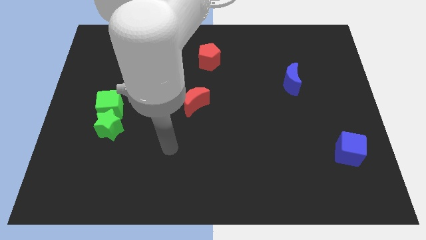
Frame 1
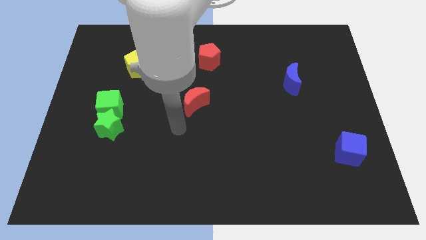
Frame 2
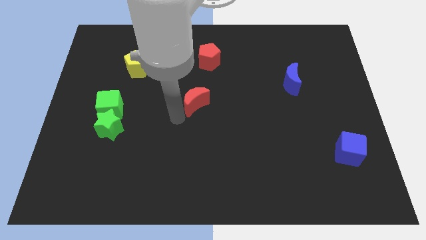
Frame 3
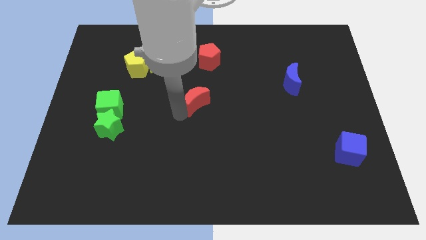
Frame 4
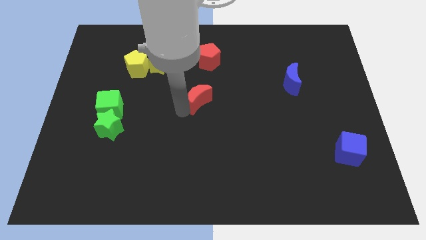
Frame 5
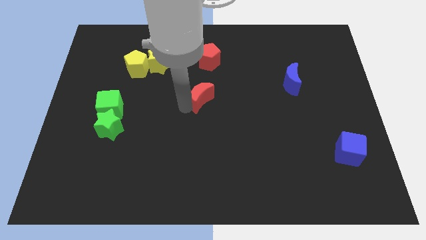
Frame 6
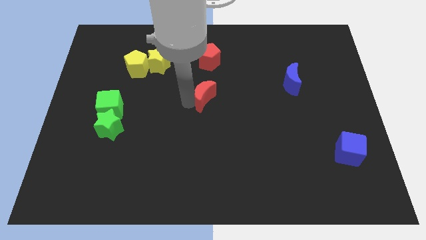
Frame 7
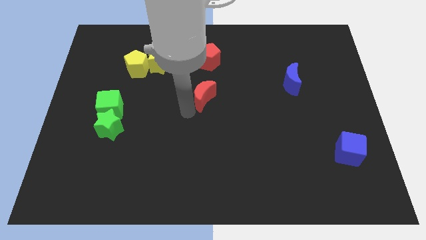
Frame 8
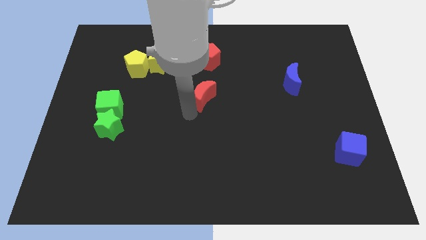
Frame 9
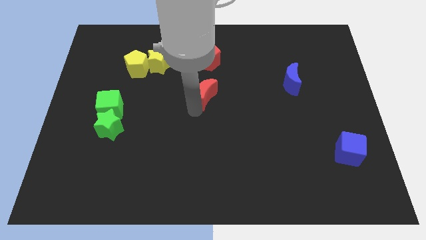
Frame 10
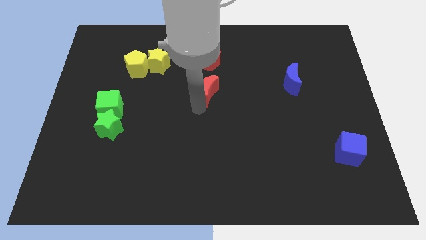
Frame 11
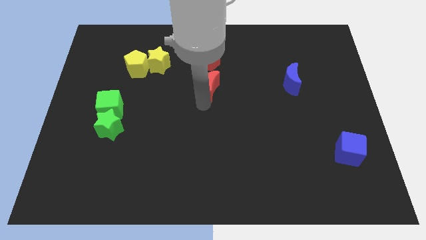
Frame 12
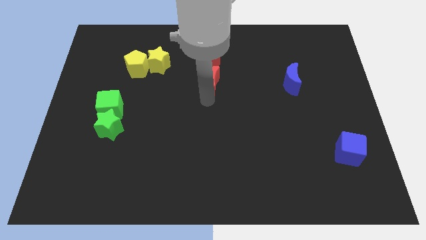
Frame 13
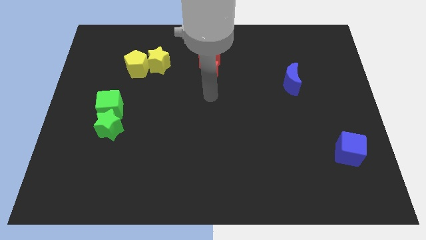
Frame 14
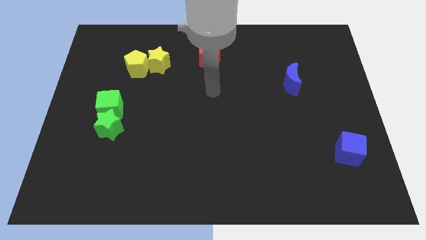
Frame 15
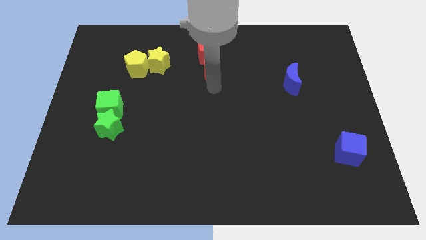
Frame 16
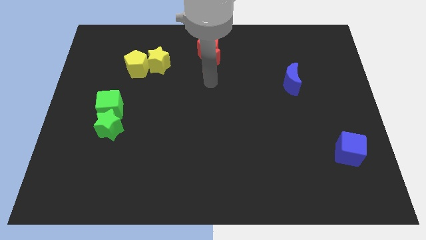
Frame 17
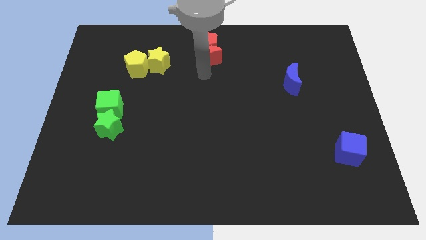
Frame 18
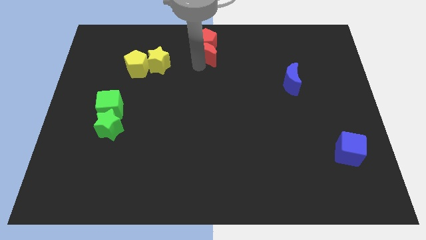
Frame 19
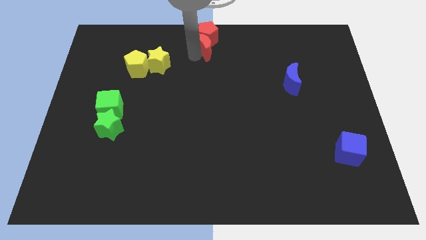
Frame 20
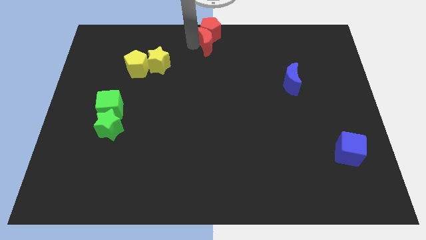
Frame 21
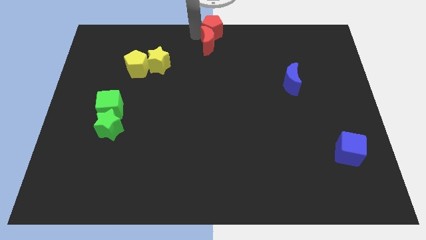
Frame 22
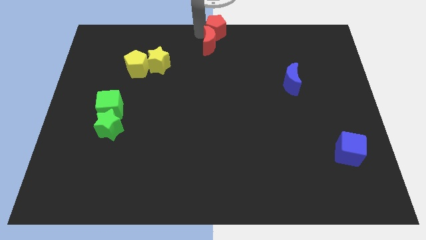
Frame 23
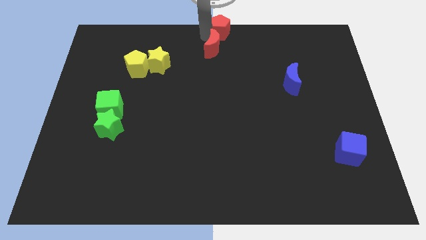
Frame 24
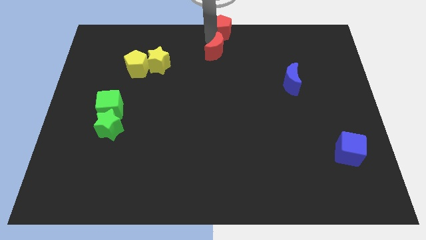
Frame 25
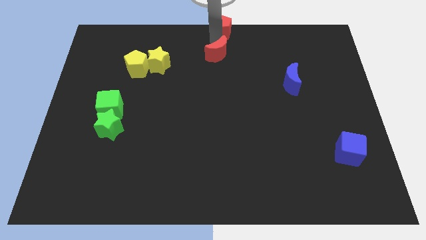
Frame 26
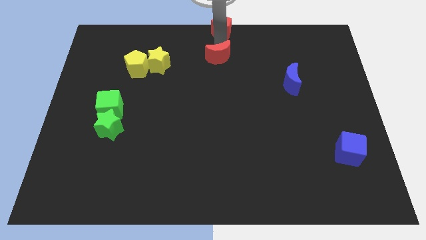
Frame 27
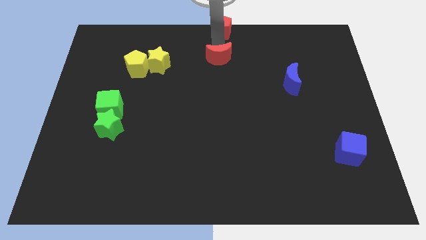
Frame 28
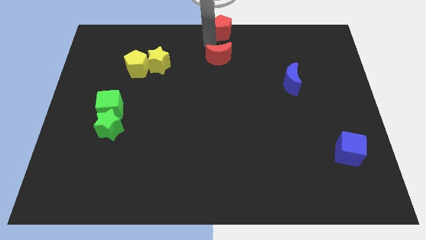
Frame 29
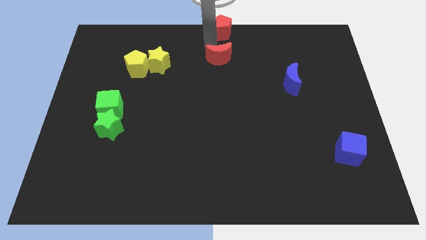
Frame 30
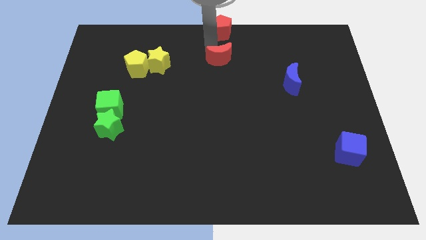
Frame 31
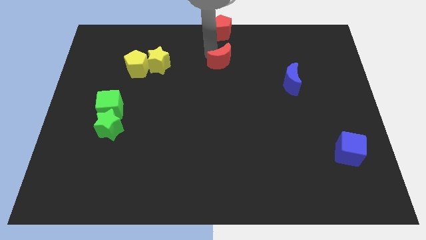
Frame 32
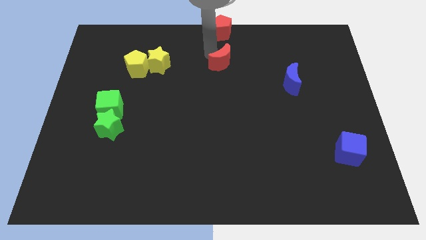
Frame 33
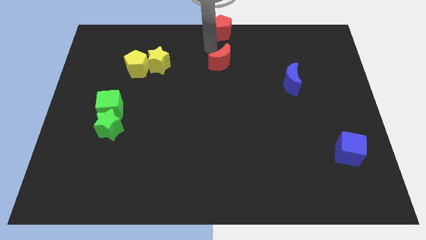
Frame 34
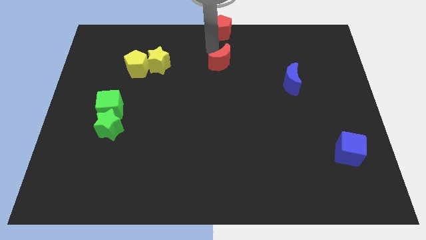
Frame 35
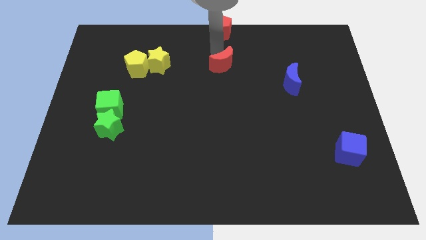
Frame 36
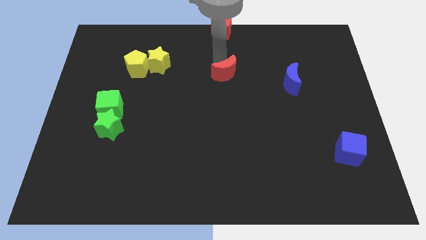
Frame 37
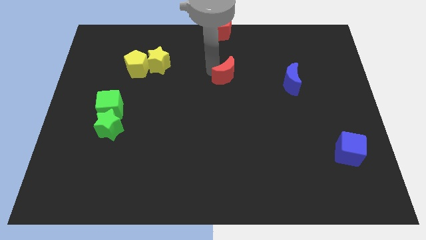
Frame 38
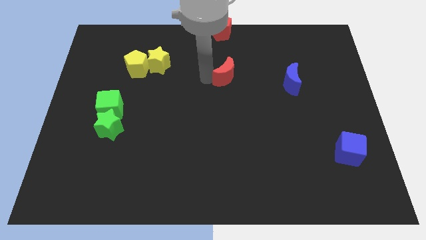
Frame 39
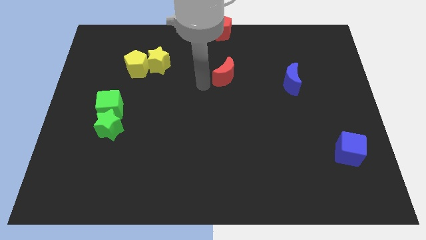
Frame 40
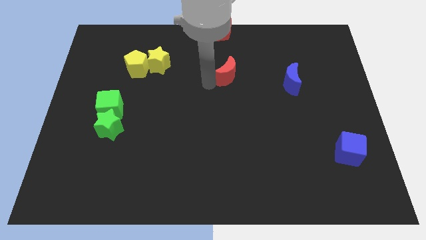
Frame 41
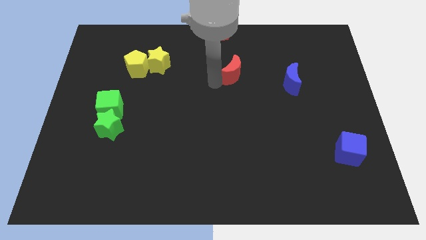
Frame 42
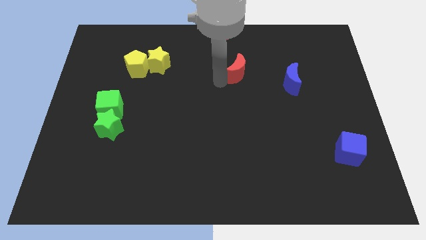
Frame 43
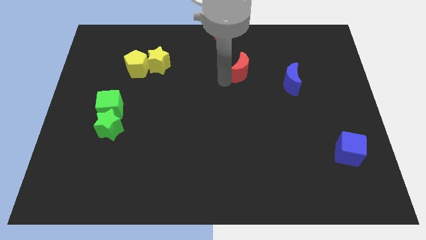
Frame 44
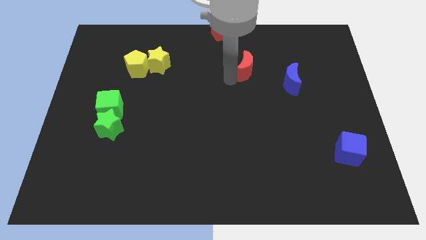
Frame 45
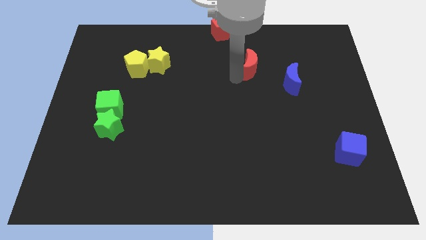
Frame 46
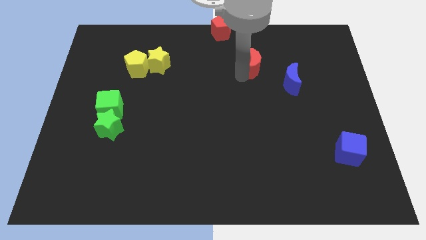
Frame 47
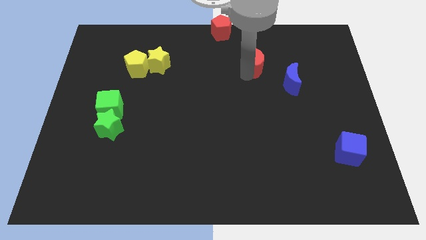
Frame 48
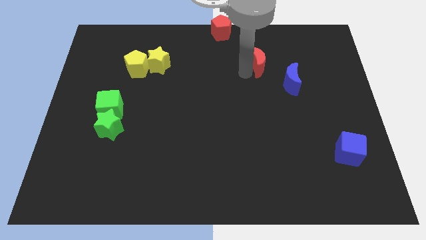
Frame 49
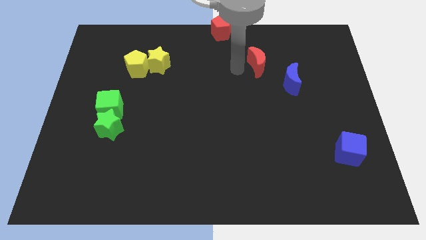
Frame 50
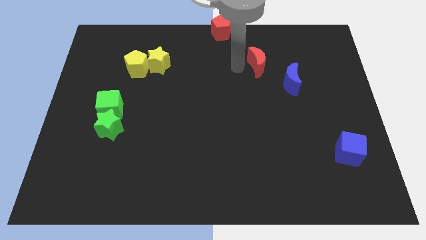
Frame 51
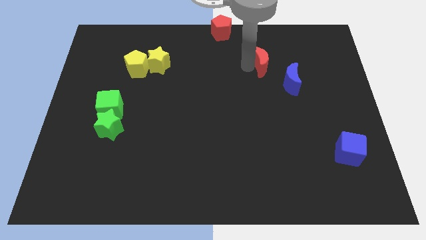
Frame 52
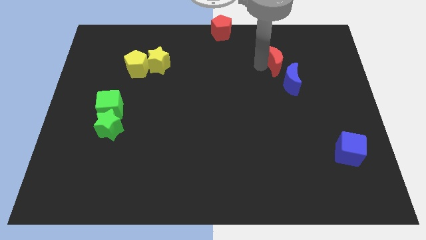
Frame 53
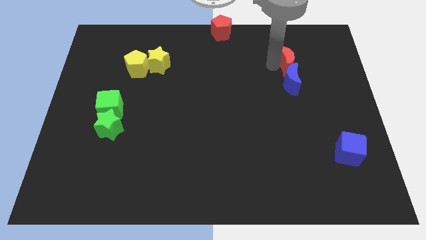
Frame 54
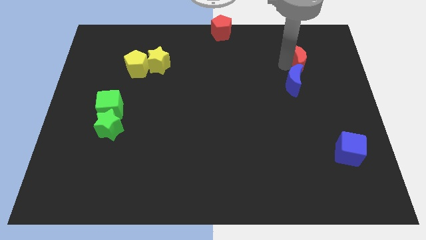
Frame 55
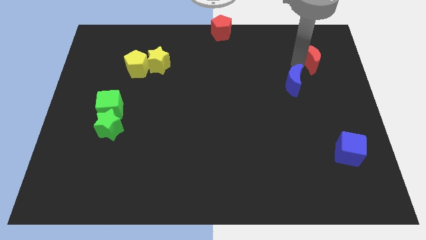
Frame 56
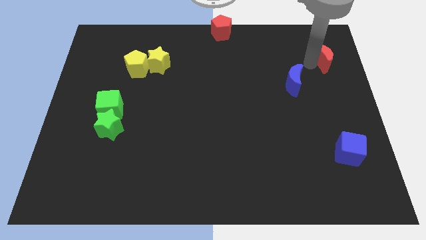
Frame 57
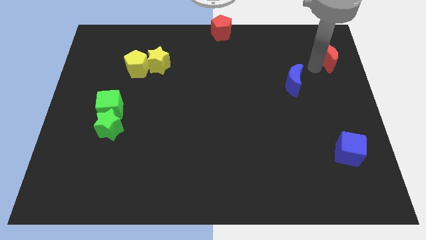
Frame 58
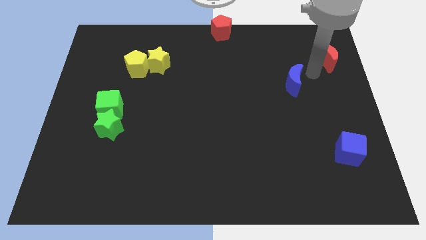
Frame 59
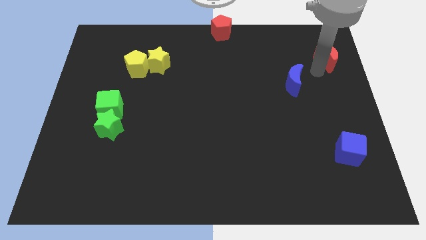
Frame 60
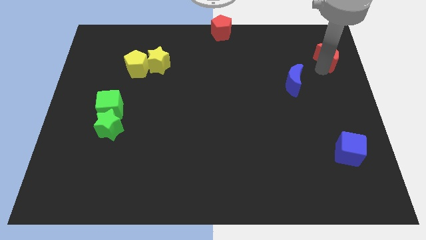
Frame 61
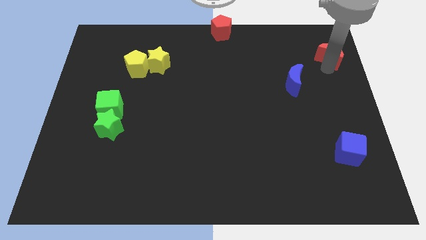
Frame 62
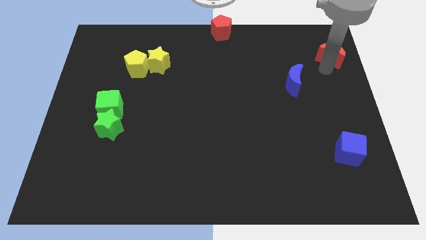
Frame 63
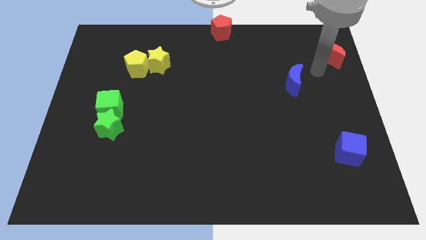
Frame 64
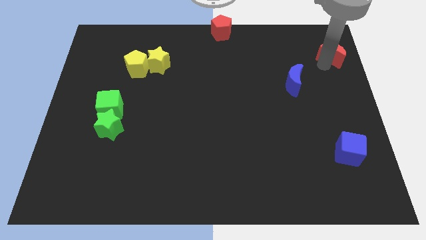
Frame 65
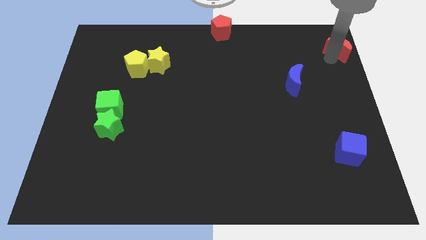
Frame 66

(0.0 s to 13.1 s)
move the red moon to the top right
